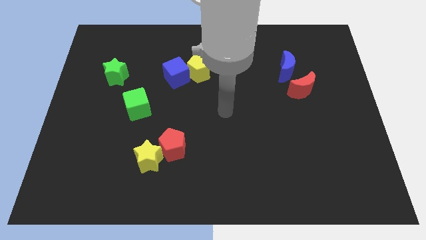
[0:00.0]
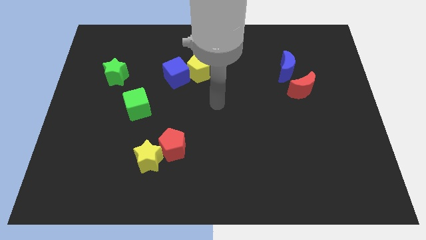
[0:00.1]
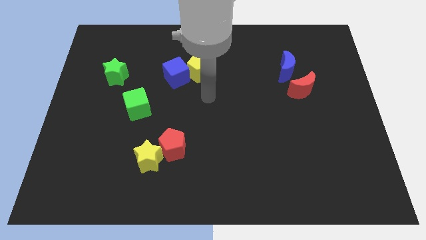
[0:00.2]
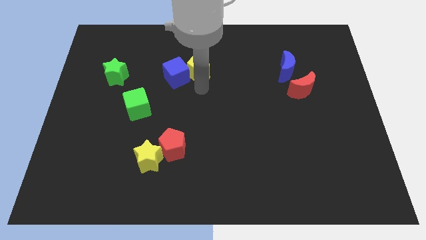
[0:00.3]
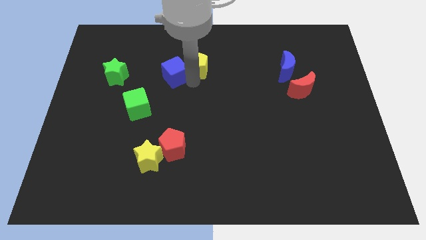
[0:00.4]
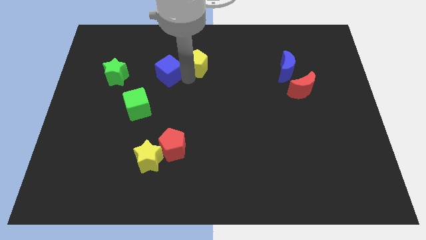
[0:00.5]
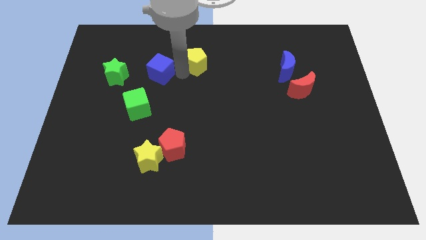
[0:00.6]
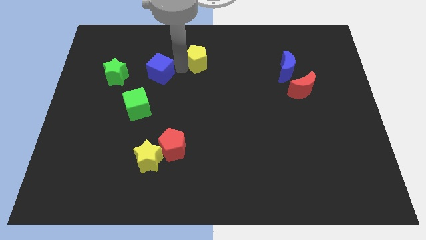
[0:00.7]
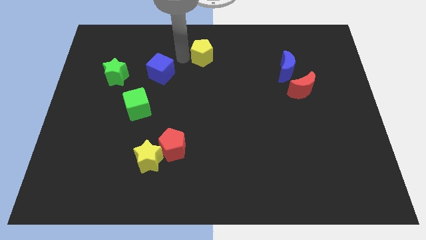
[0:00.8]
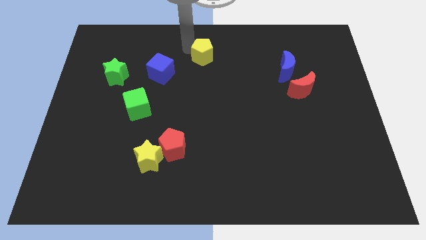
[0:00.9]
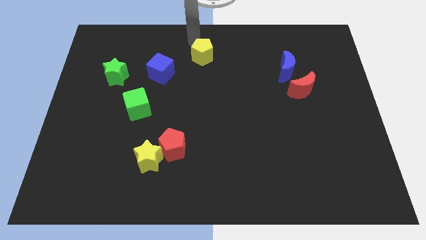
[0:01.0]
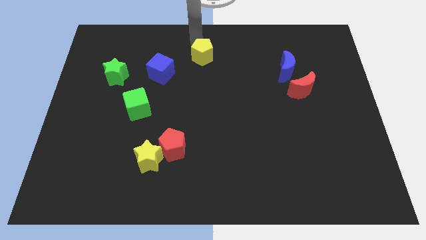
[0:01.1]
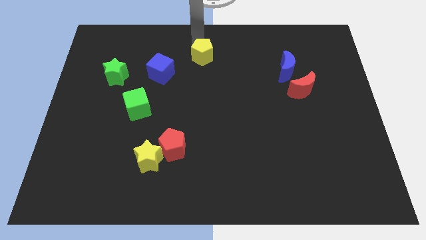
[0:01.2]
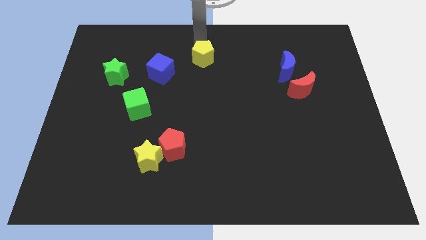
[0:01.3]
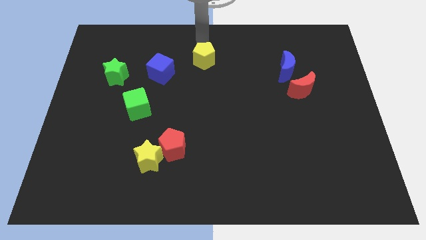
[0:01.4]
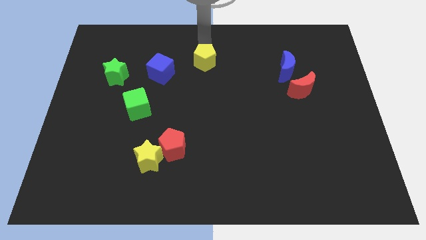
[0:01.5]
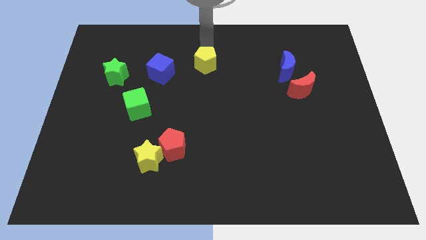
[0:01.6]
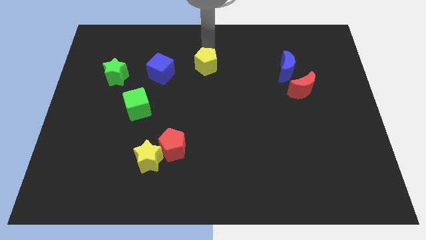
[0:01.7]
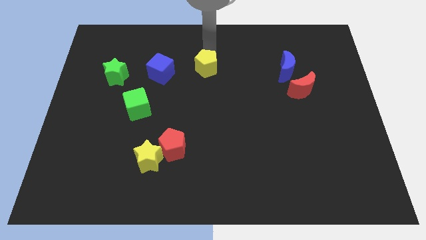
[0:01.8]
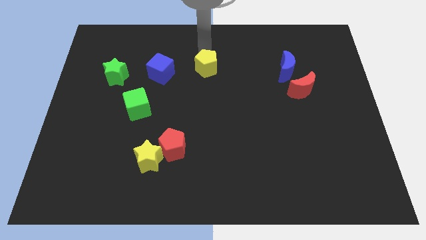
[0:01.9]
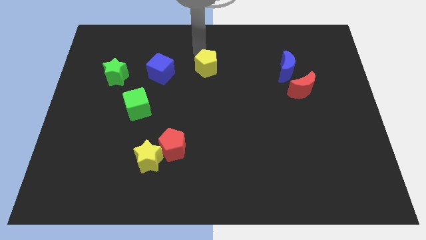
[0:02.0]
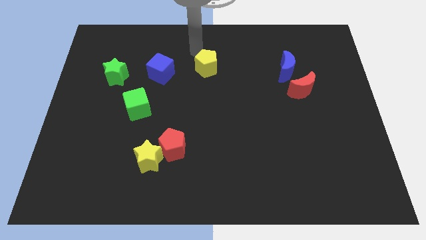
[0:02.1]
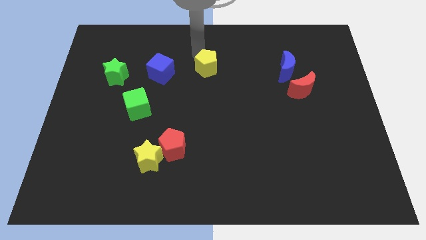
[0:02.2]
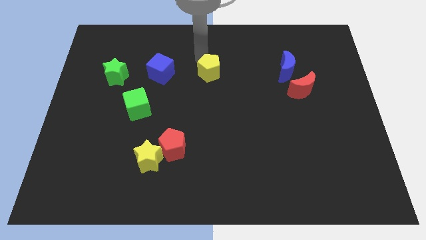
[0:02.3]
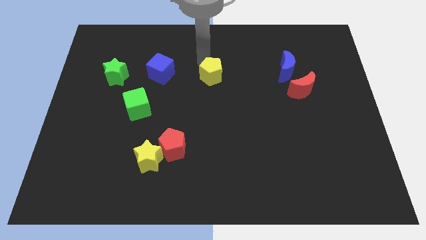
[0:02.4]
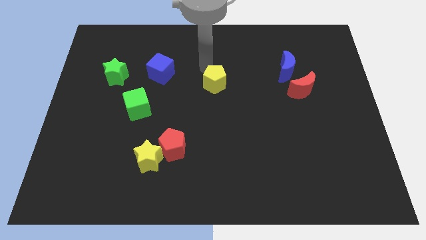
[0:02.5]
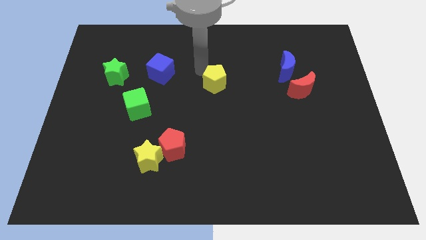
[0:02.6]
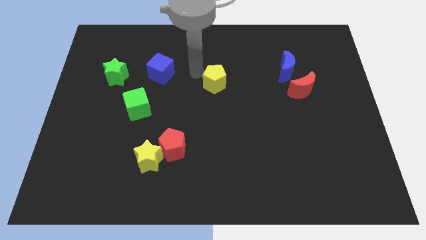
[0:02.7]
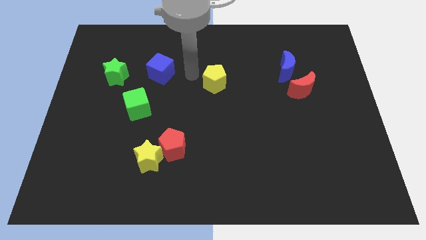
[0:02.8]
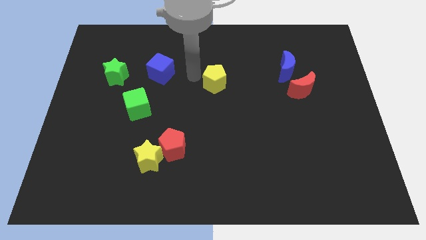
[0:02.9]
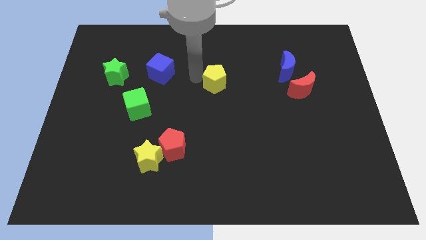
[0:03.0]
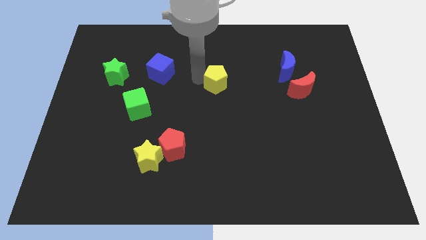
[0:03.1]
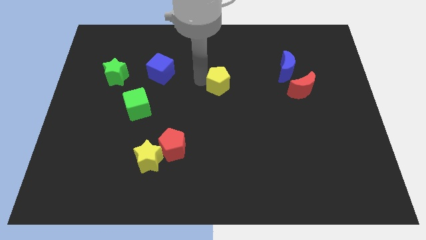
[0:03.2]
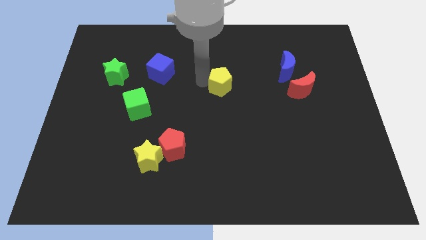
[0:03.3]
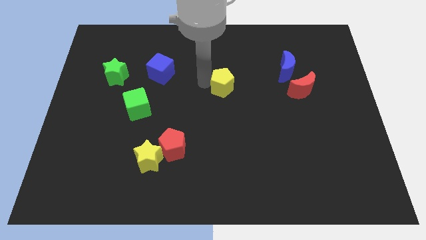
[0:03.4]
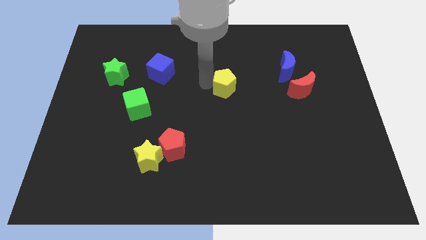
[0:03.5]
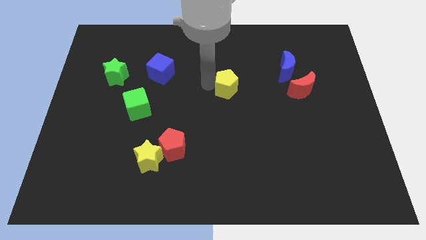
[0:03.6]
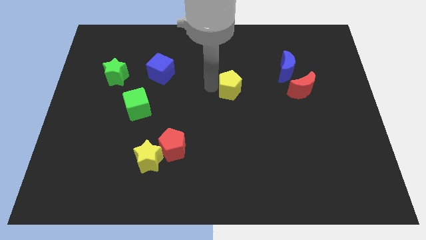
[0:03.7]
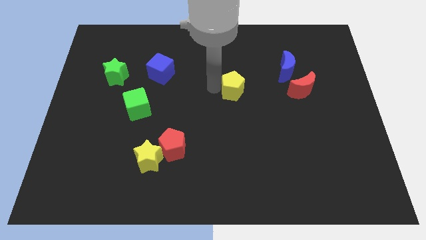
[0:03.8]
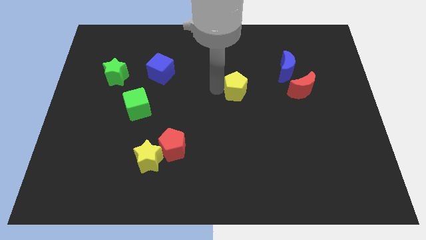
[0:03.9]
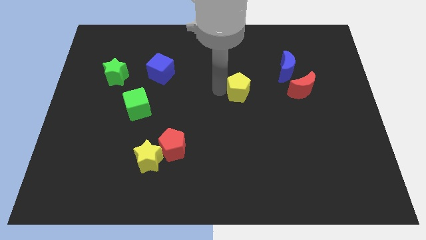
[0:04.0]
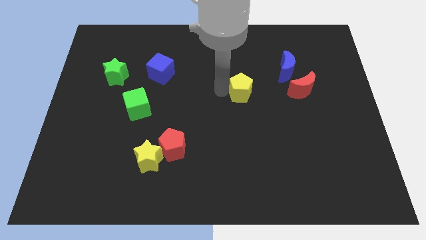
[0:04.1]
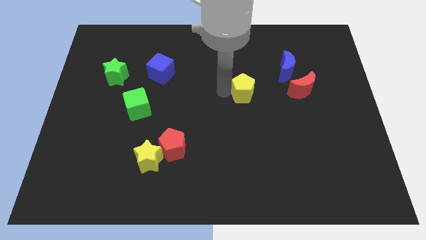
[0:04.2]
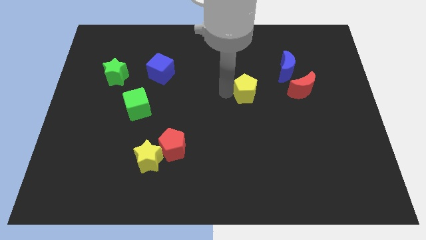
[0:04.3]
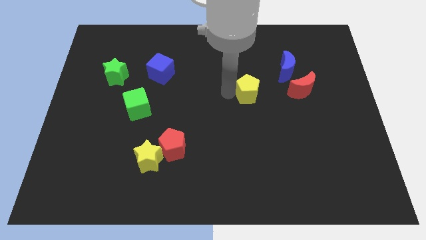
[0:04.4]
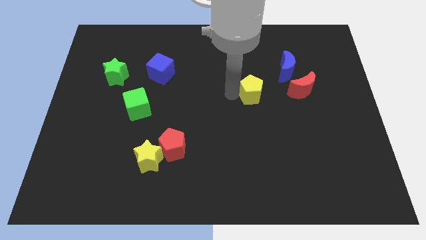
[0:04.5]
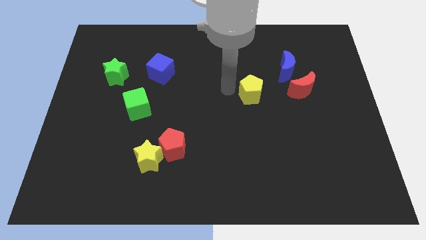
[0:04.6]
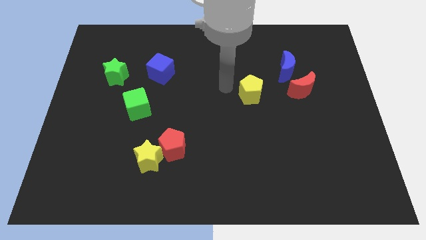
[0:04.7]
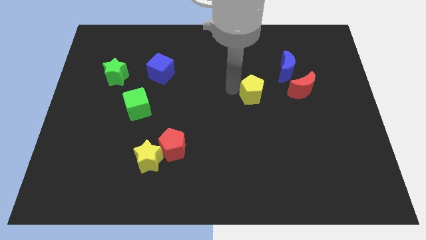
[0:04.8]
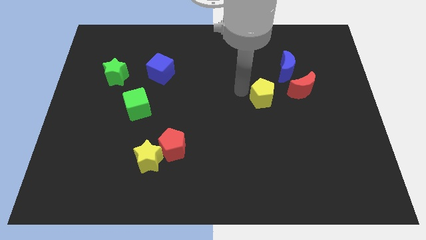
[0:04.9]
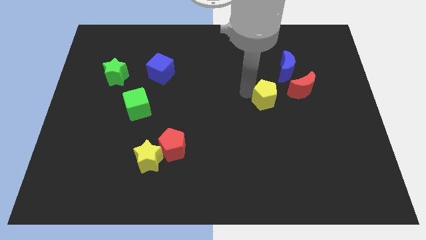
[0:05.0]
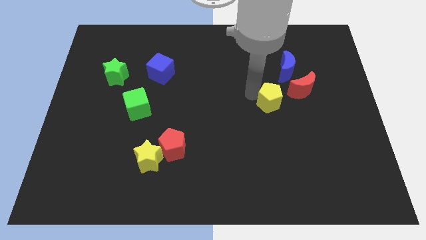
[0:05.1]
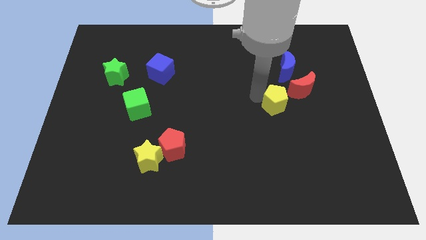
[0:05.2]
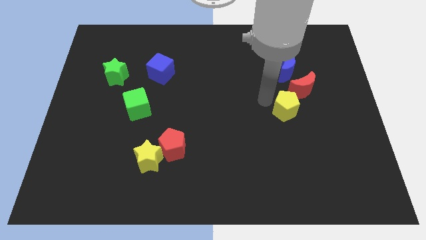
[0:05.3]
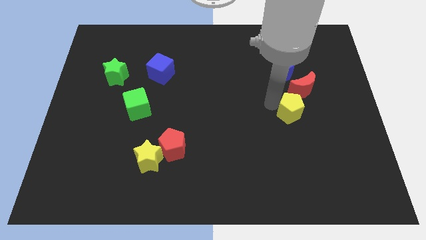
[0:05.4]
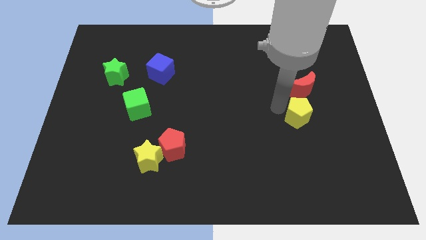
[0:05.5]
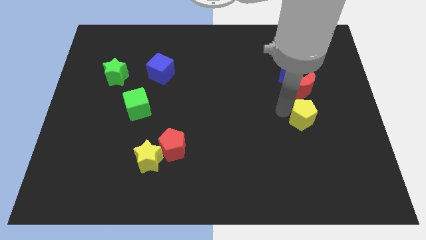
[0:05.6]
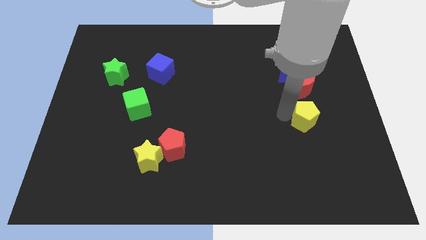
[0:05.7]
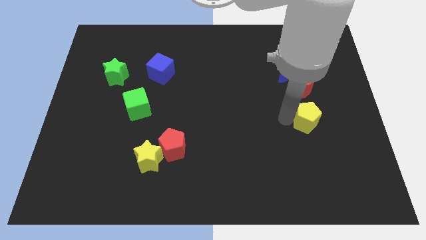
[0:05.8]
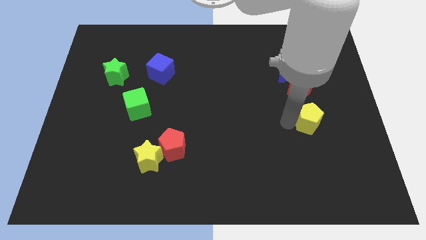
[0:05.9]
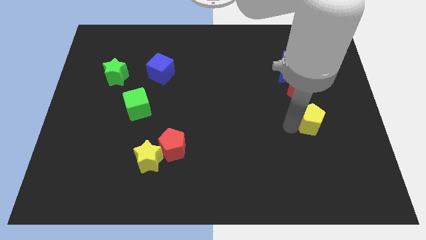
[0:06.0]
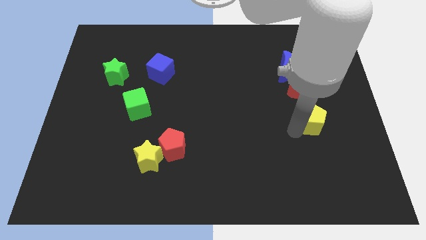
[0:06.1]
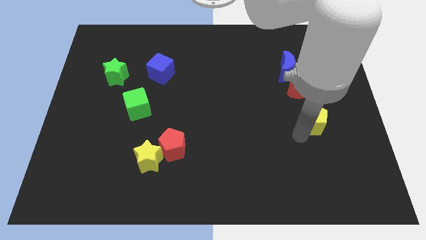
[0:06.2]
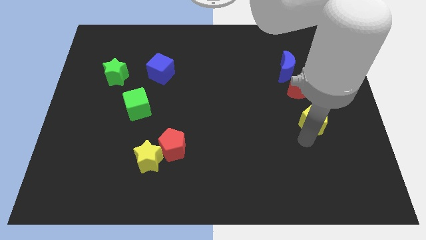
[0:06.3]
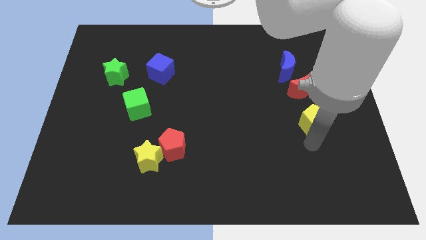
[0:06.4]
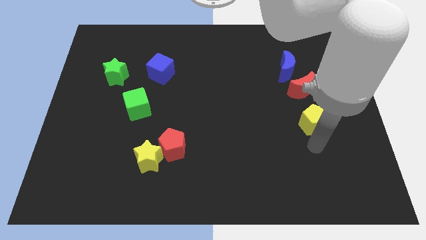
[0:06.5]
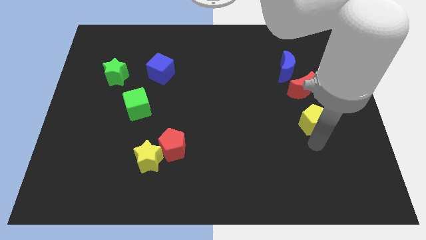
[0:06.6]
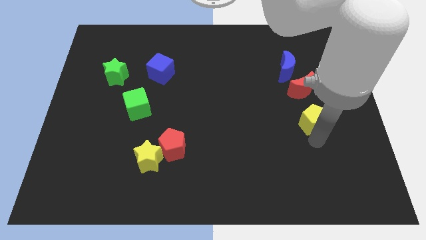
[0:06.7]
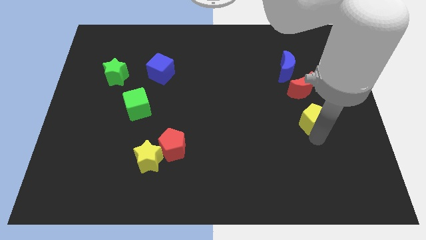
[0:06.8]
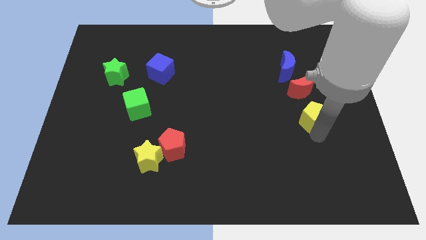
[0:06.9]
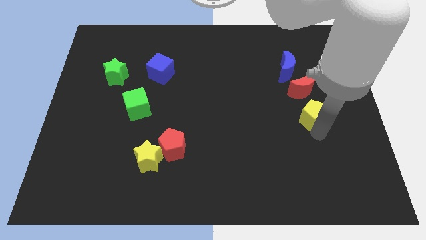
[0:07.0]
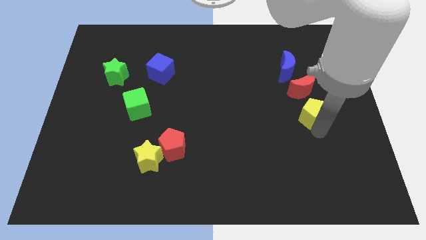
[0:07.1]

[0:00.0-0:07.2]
slide the yellow pentagon to the bottom right side of the red moon
